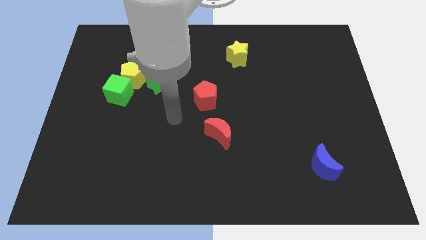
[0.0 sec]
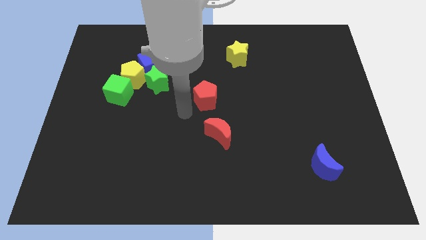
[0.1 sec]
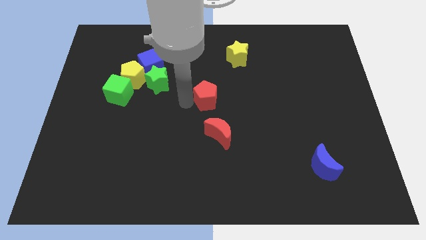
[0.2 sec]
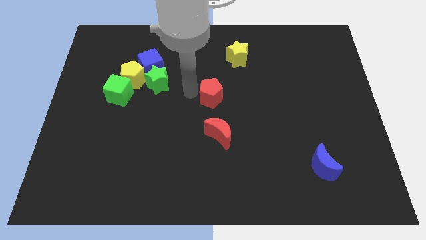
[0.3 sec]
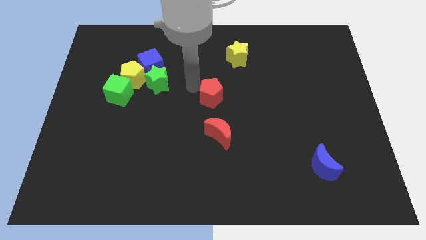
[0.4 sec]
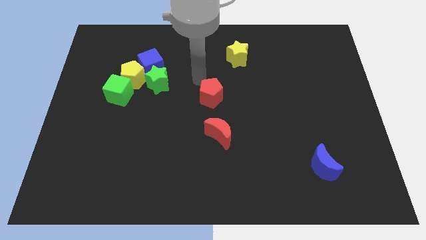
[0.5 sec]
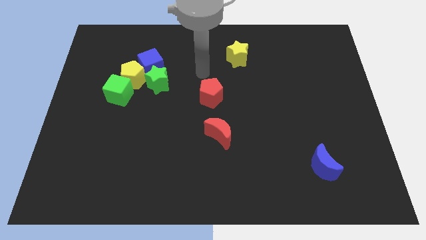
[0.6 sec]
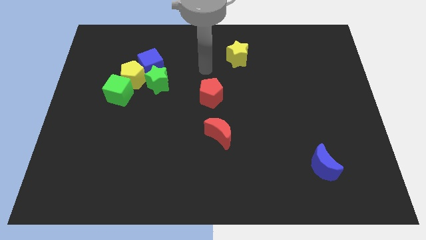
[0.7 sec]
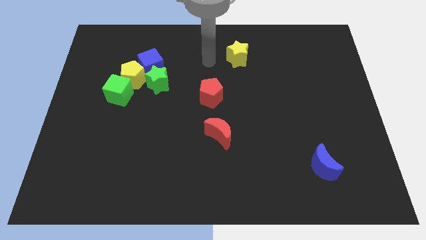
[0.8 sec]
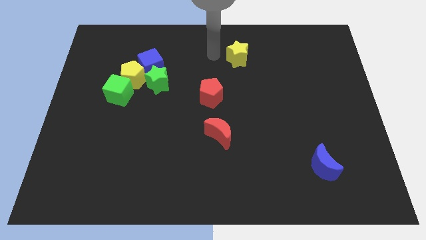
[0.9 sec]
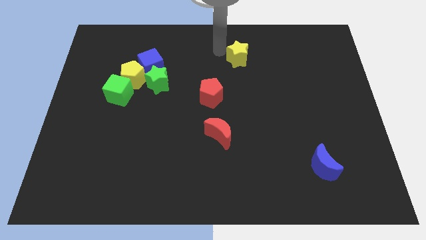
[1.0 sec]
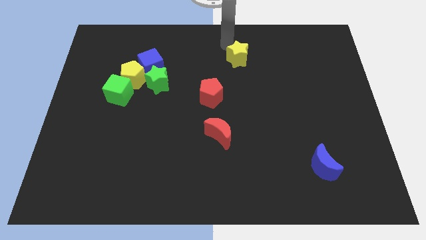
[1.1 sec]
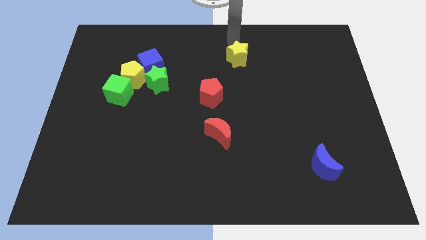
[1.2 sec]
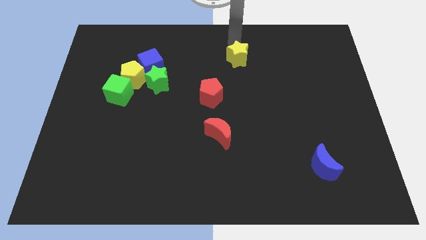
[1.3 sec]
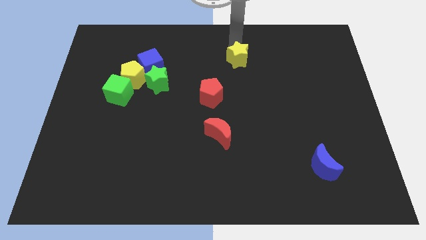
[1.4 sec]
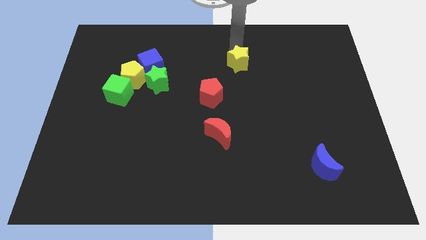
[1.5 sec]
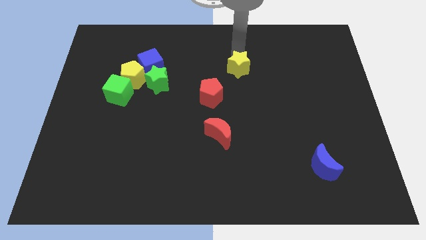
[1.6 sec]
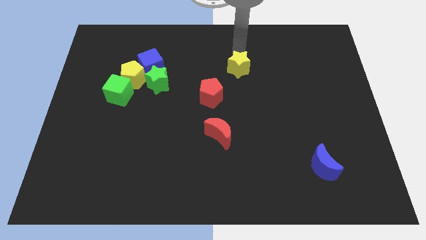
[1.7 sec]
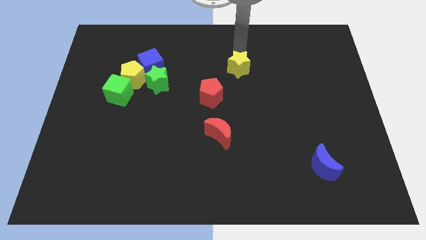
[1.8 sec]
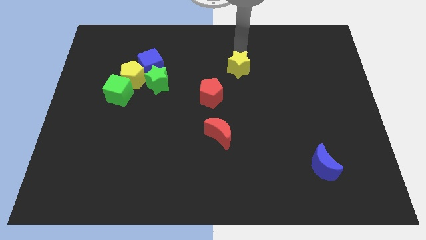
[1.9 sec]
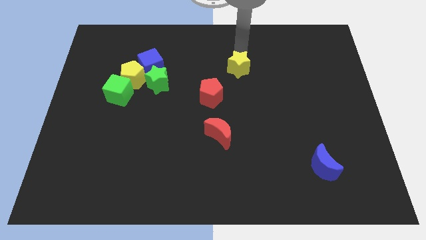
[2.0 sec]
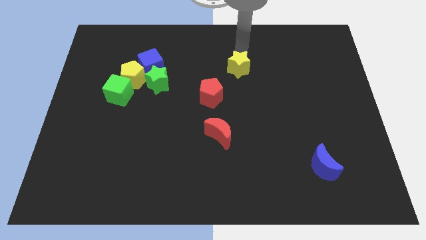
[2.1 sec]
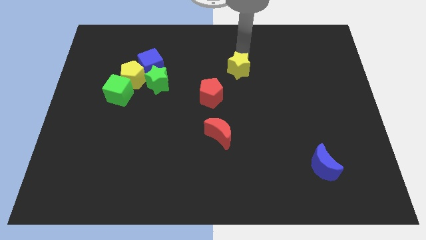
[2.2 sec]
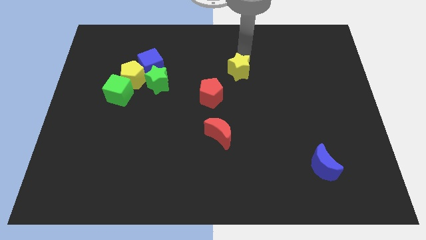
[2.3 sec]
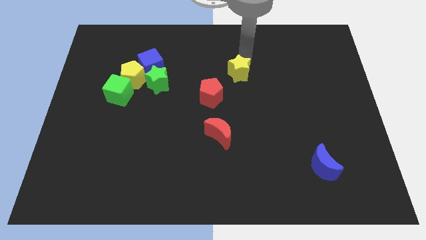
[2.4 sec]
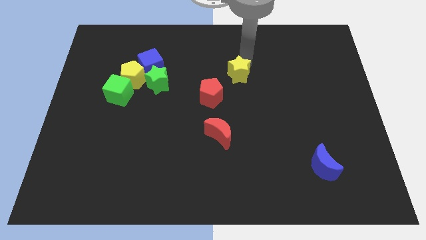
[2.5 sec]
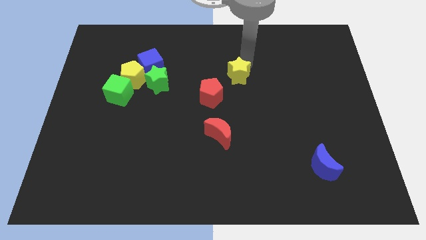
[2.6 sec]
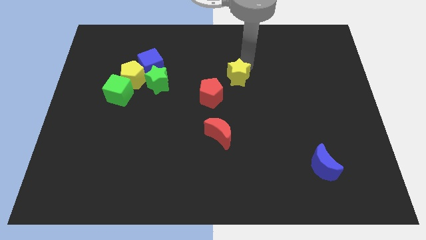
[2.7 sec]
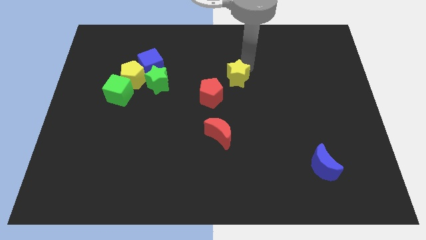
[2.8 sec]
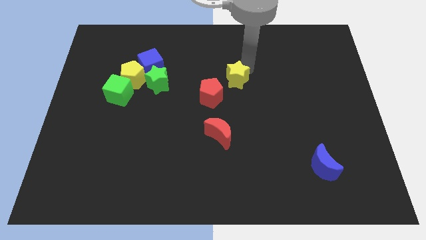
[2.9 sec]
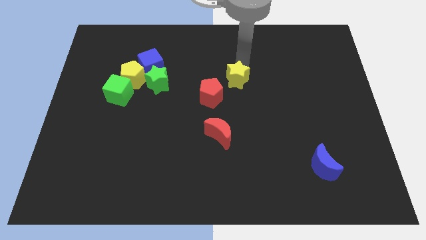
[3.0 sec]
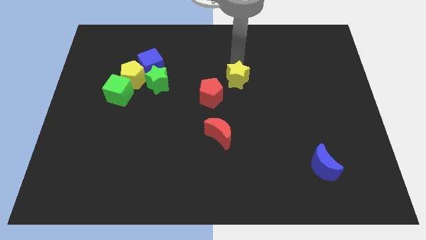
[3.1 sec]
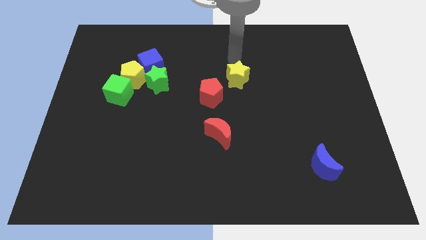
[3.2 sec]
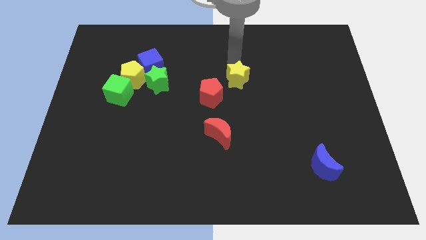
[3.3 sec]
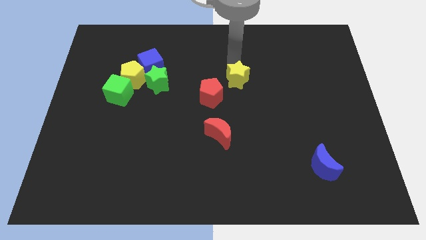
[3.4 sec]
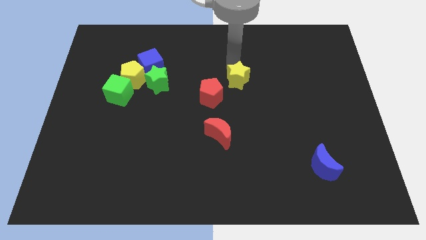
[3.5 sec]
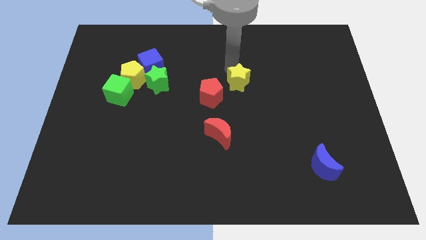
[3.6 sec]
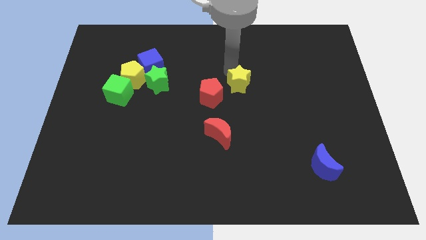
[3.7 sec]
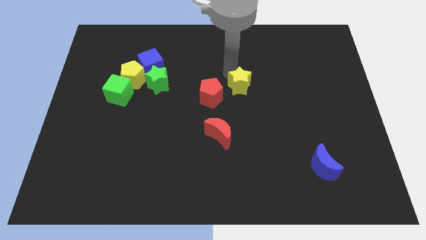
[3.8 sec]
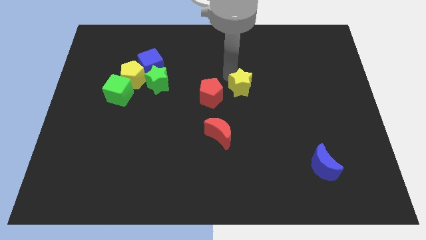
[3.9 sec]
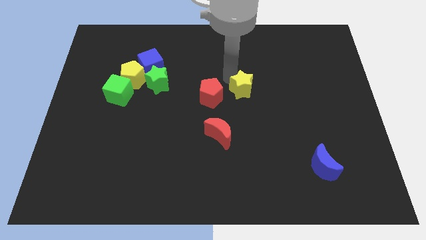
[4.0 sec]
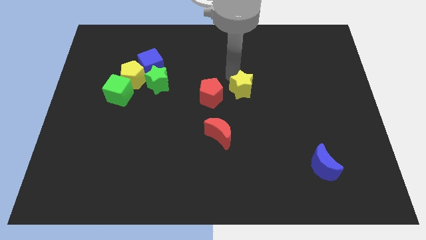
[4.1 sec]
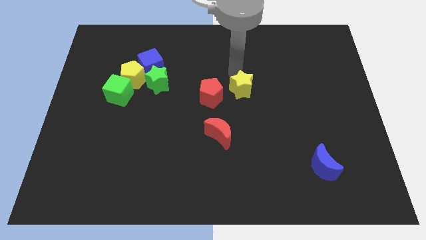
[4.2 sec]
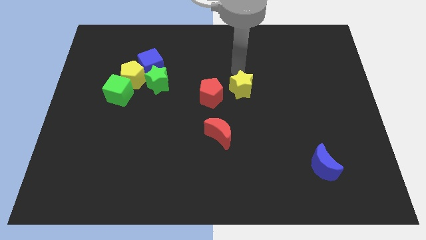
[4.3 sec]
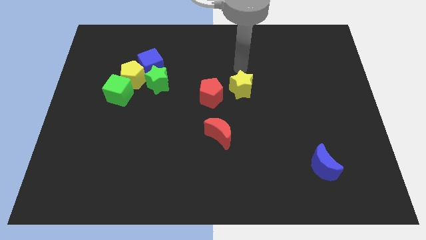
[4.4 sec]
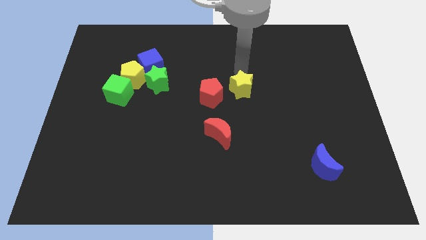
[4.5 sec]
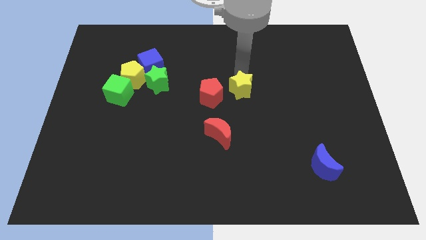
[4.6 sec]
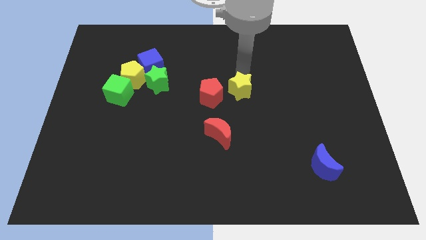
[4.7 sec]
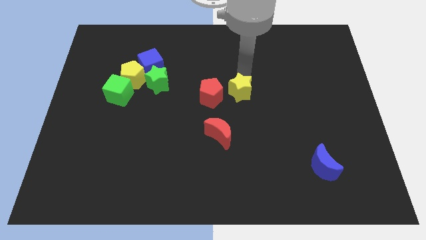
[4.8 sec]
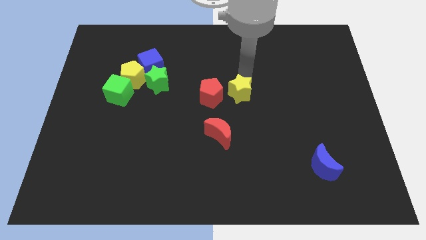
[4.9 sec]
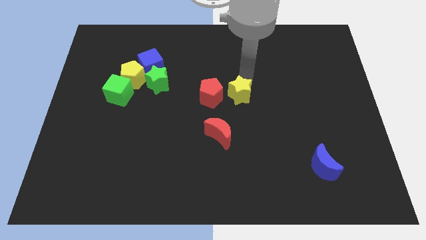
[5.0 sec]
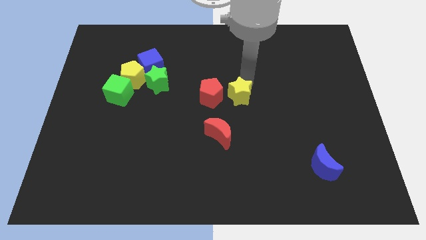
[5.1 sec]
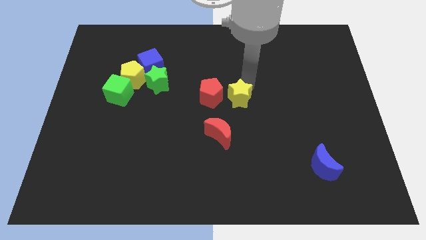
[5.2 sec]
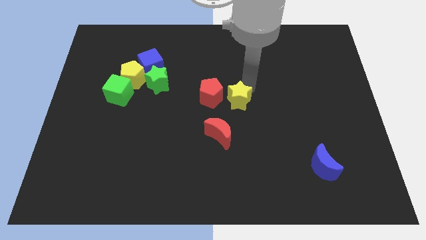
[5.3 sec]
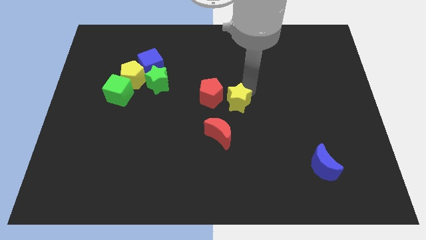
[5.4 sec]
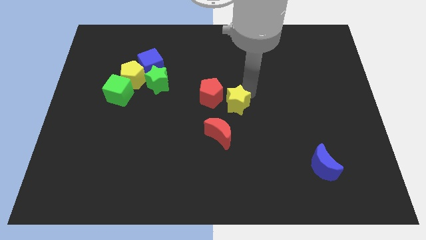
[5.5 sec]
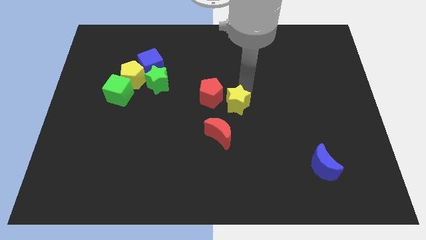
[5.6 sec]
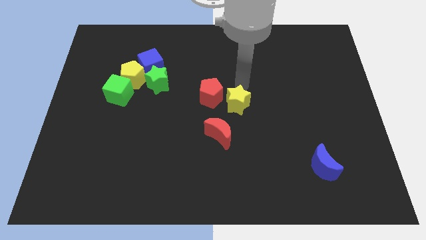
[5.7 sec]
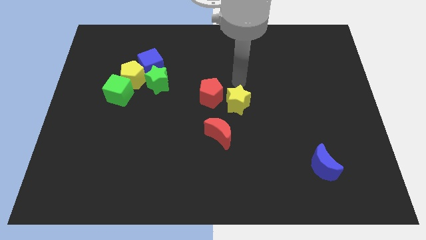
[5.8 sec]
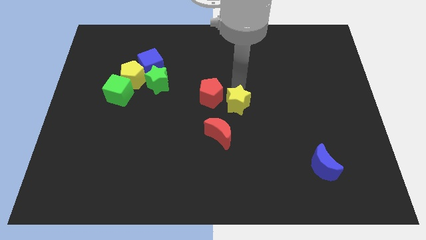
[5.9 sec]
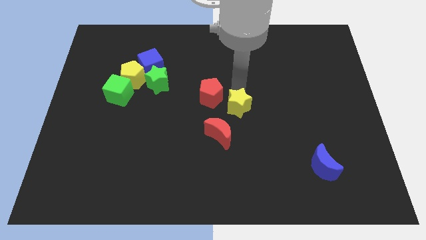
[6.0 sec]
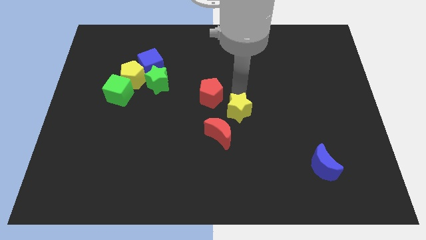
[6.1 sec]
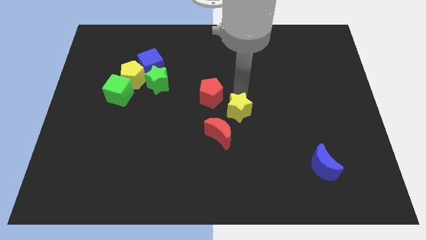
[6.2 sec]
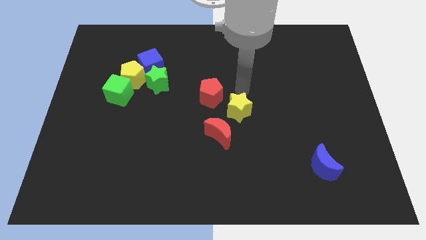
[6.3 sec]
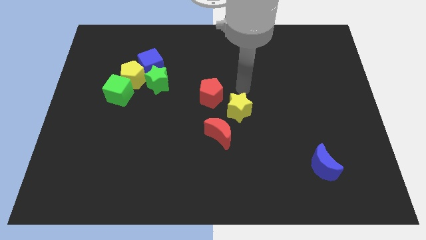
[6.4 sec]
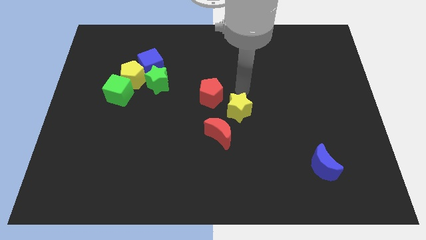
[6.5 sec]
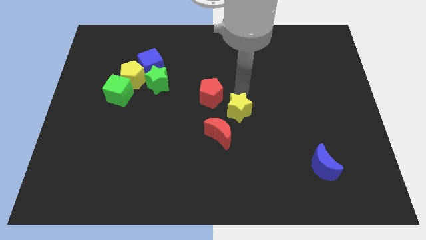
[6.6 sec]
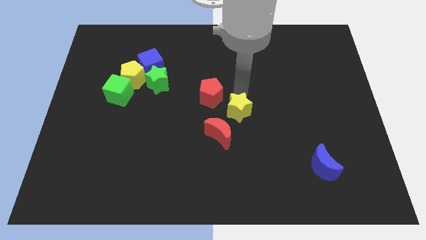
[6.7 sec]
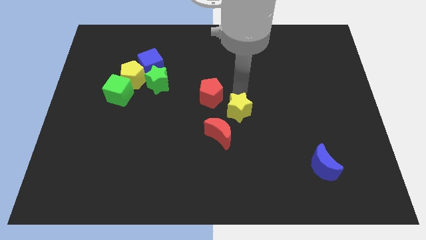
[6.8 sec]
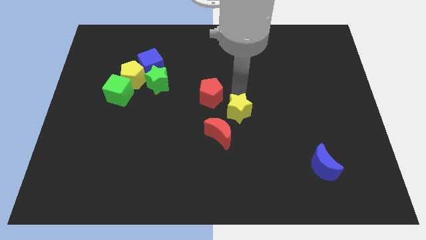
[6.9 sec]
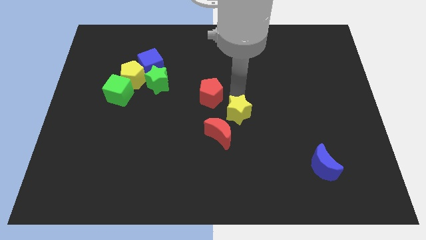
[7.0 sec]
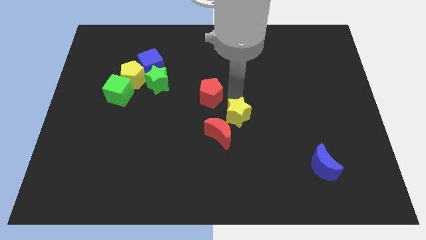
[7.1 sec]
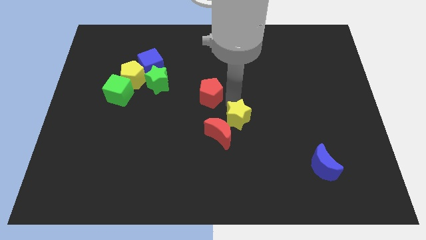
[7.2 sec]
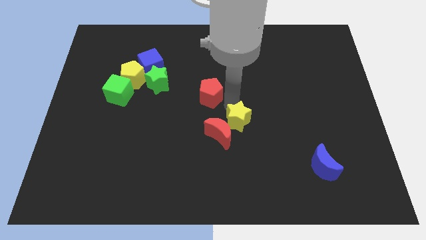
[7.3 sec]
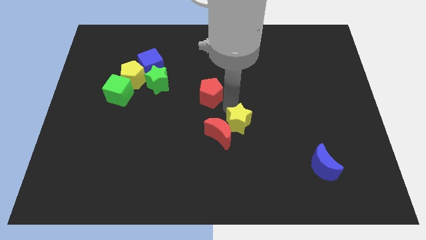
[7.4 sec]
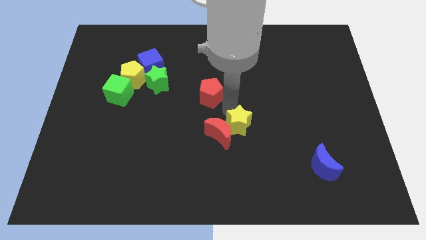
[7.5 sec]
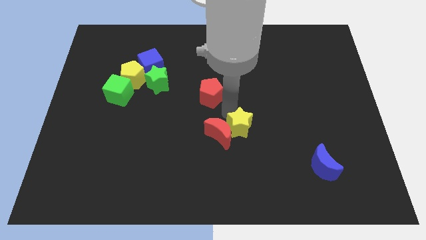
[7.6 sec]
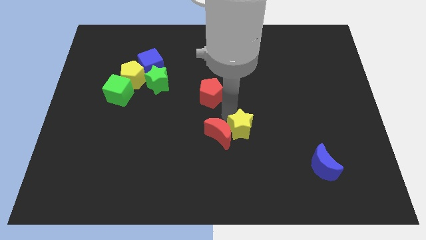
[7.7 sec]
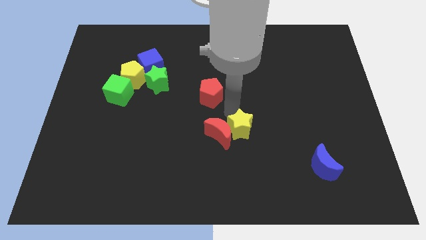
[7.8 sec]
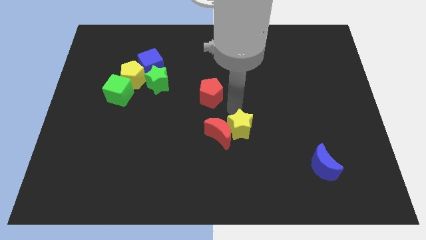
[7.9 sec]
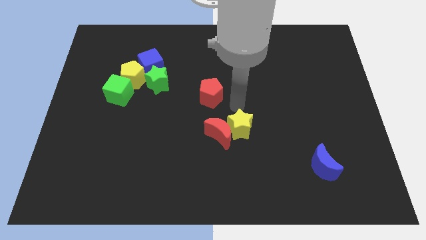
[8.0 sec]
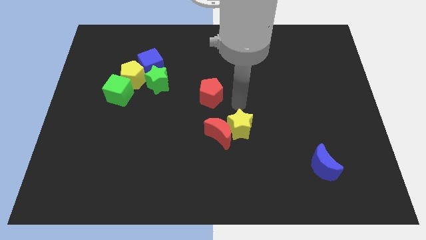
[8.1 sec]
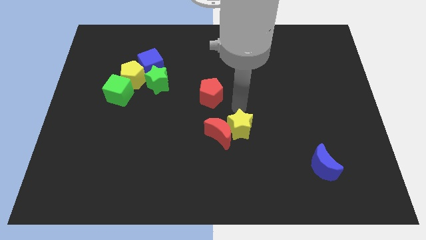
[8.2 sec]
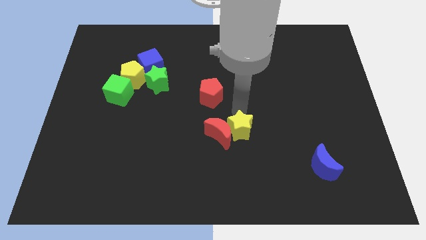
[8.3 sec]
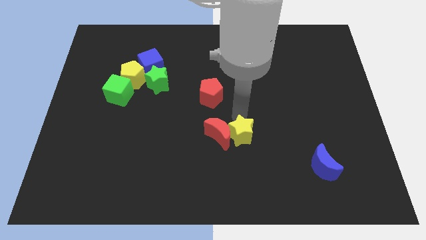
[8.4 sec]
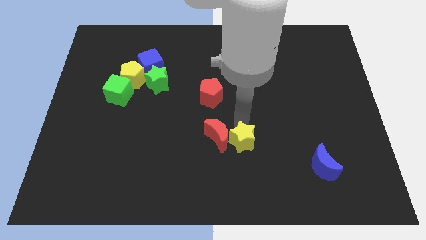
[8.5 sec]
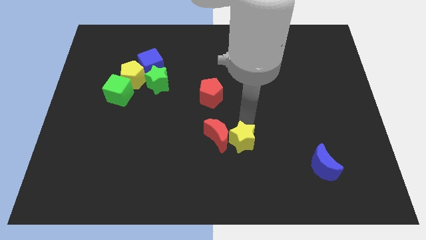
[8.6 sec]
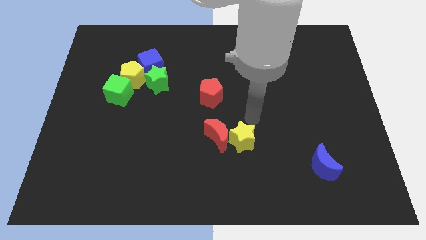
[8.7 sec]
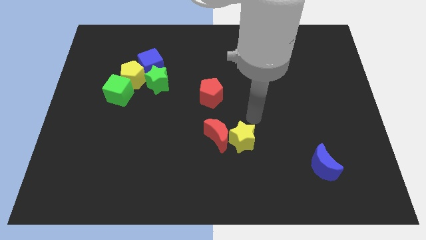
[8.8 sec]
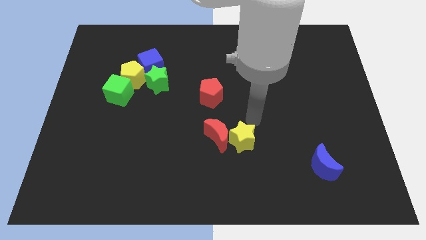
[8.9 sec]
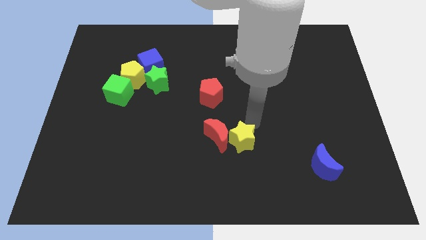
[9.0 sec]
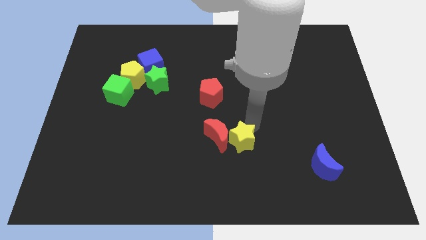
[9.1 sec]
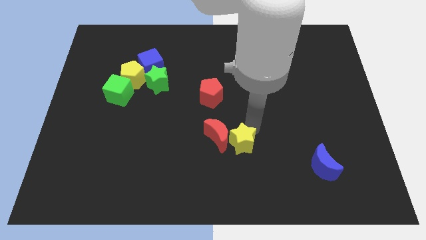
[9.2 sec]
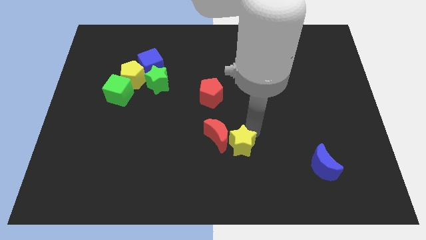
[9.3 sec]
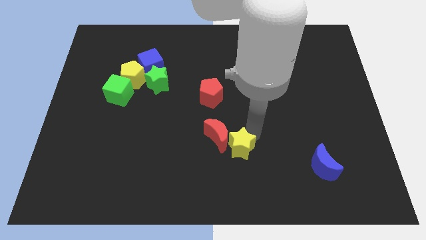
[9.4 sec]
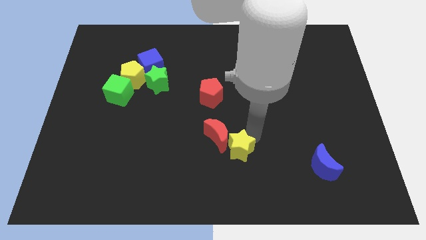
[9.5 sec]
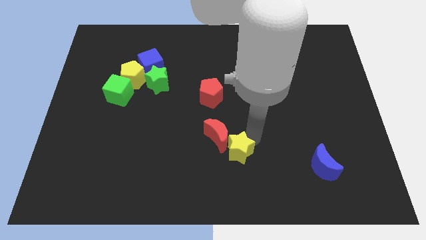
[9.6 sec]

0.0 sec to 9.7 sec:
slide the yellow star to the bottom of the red moon
